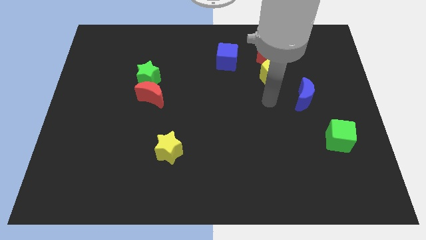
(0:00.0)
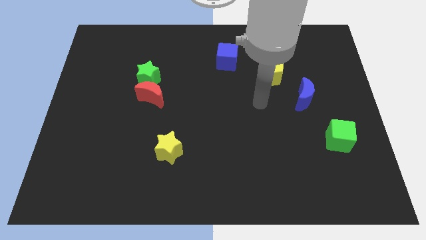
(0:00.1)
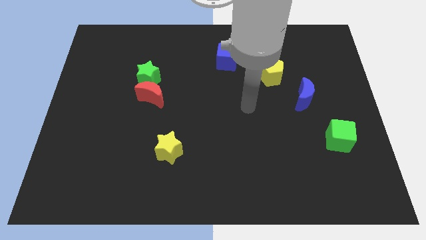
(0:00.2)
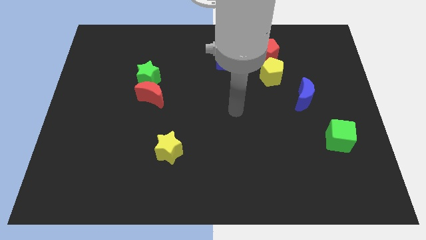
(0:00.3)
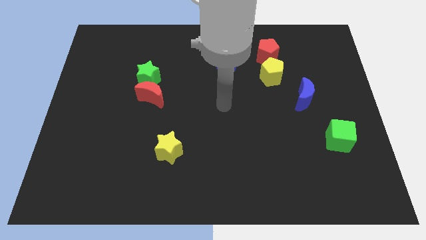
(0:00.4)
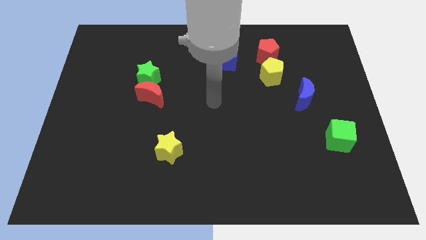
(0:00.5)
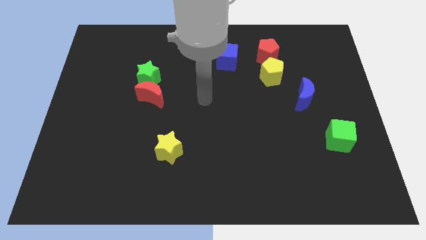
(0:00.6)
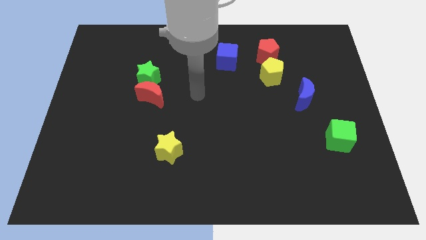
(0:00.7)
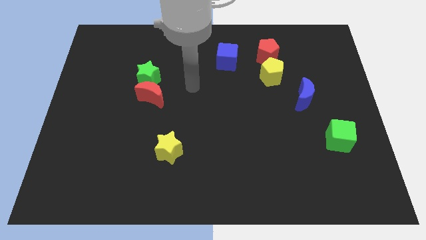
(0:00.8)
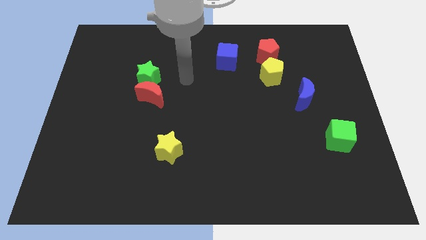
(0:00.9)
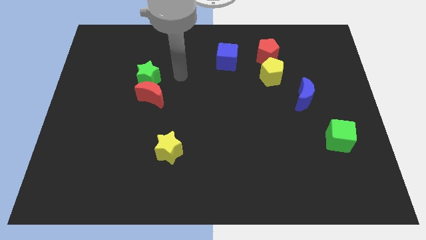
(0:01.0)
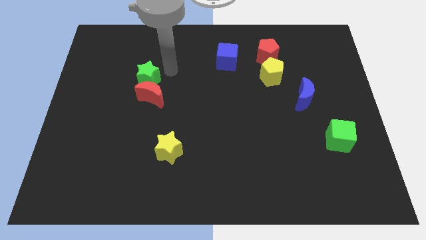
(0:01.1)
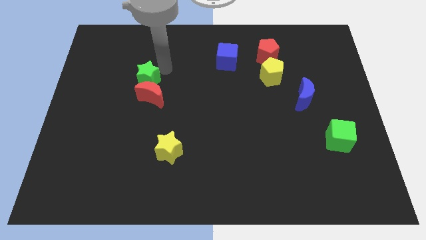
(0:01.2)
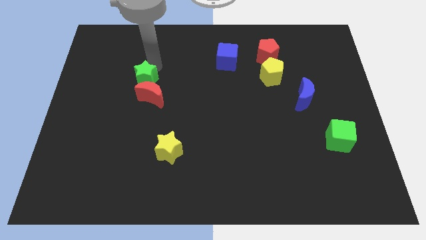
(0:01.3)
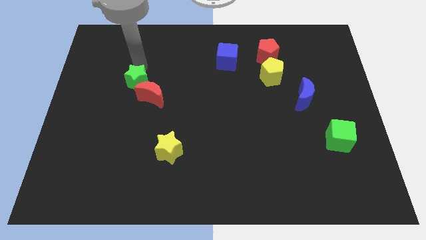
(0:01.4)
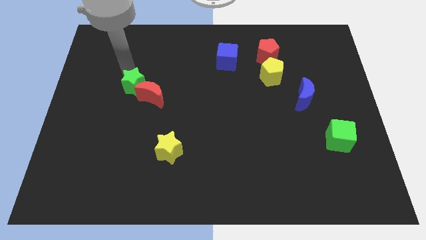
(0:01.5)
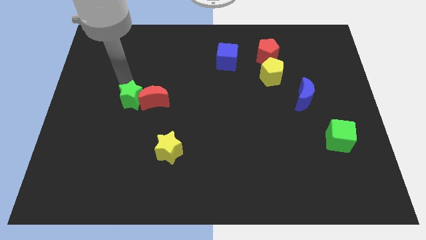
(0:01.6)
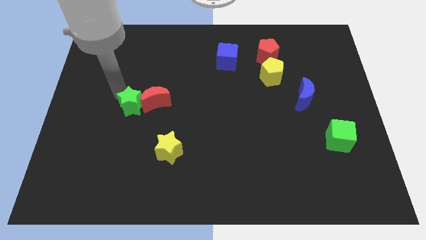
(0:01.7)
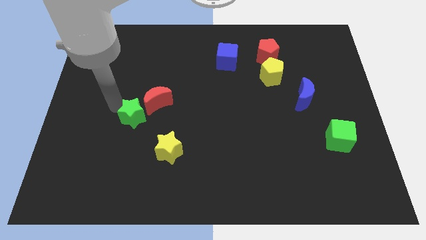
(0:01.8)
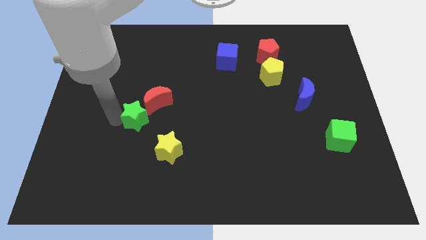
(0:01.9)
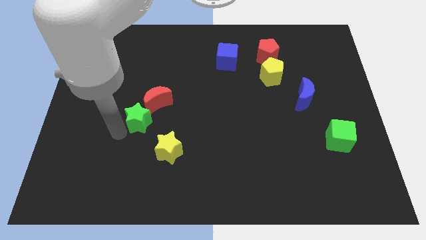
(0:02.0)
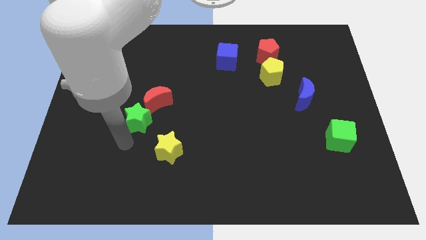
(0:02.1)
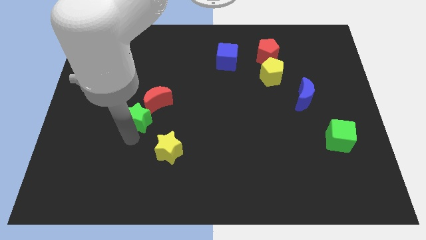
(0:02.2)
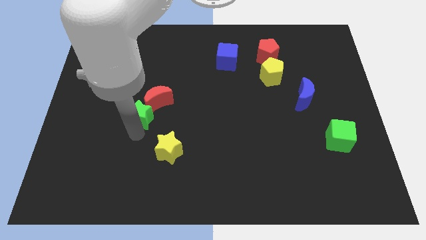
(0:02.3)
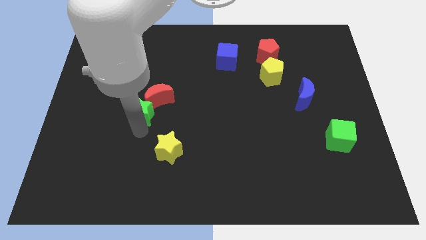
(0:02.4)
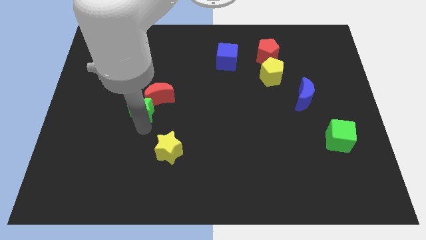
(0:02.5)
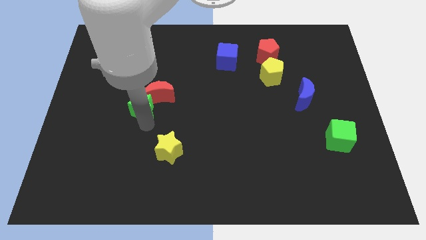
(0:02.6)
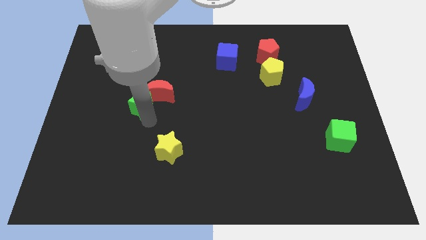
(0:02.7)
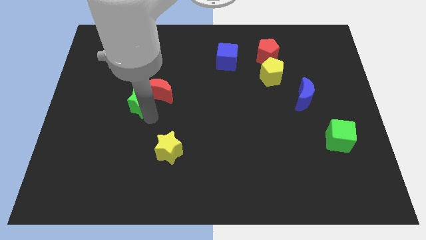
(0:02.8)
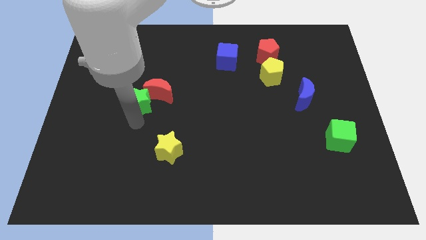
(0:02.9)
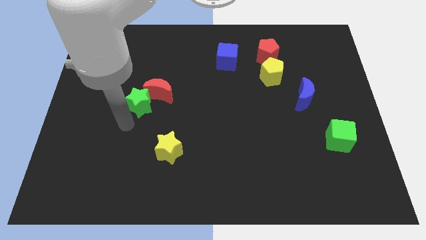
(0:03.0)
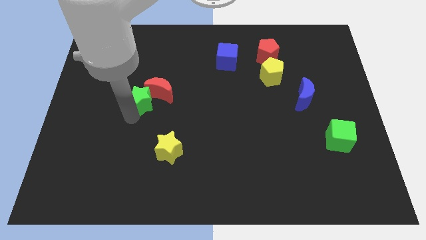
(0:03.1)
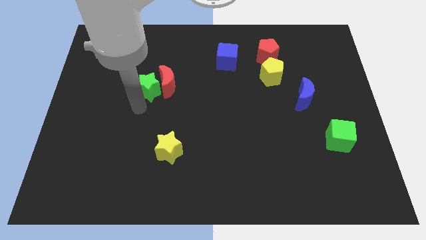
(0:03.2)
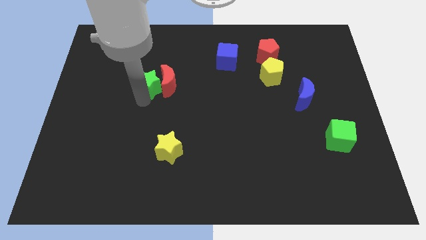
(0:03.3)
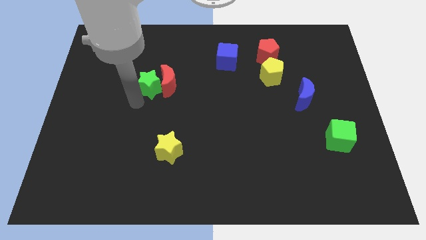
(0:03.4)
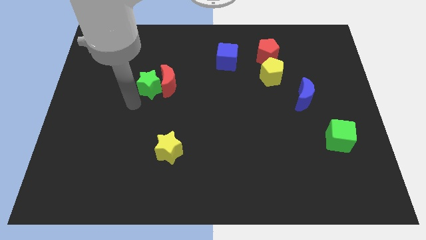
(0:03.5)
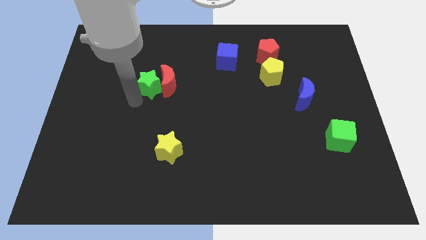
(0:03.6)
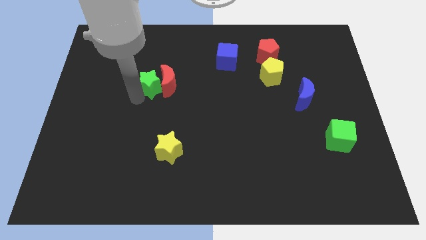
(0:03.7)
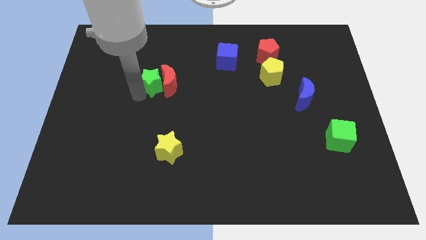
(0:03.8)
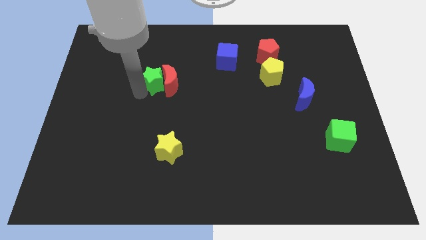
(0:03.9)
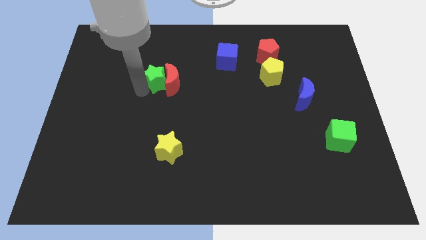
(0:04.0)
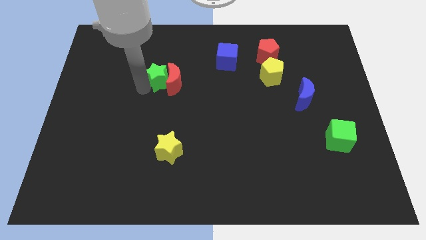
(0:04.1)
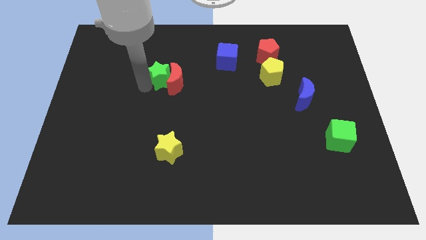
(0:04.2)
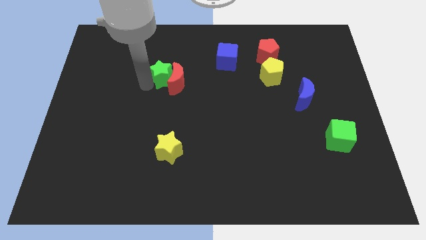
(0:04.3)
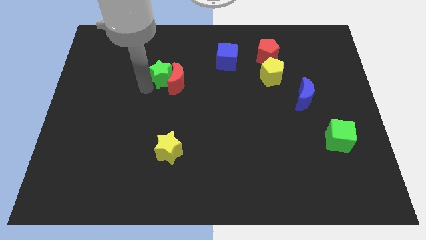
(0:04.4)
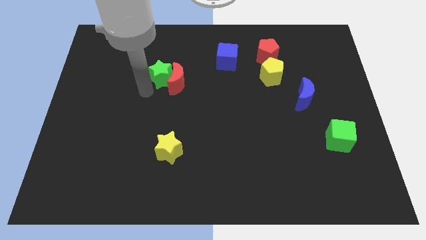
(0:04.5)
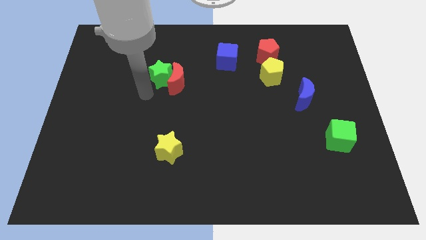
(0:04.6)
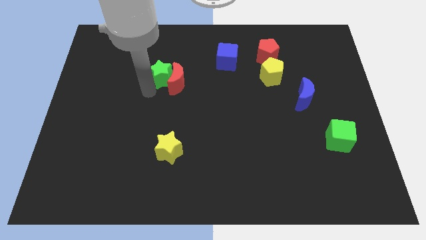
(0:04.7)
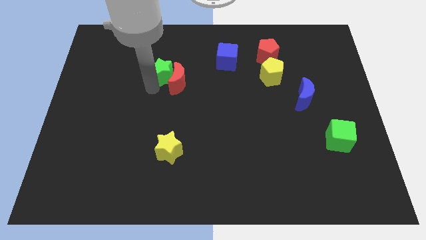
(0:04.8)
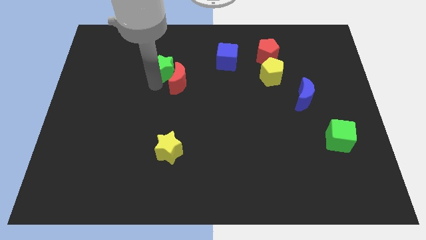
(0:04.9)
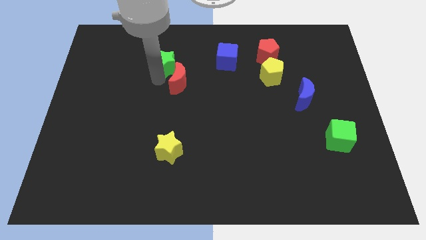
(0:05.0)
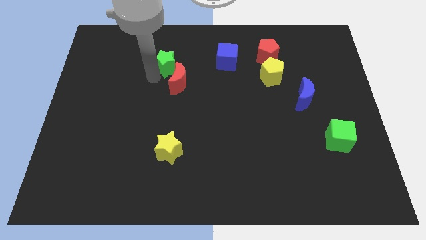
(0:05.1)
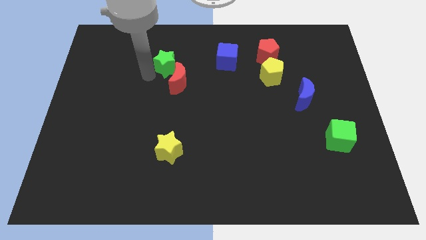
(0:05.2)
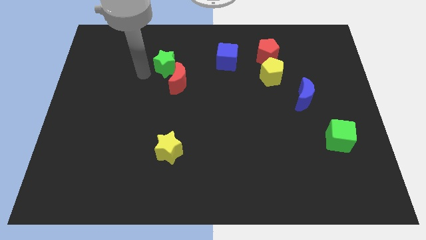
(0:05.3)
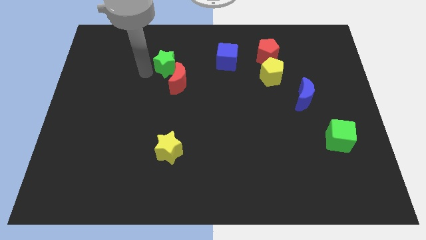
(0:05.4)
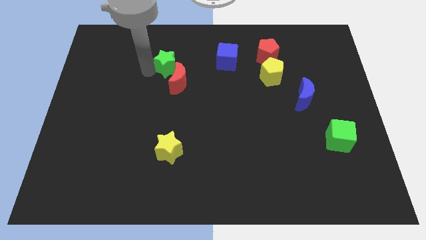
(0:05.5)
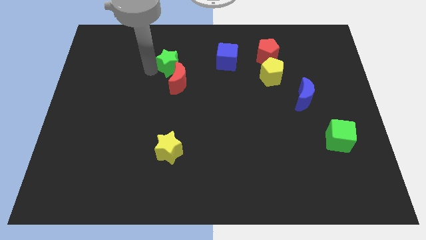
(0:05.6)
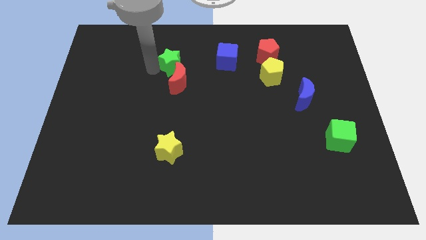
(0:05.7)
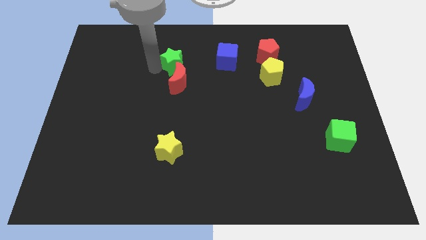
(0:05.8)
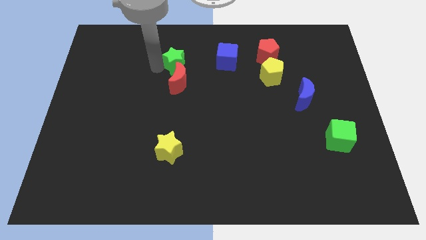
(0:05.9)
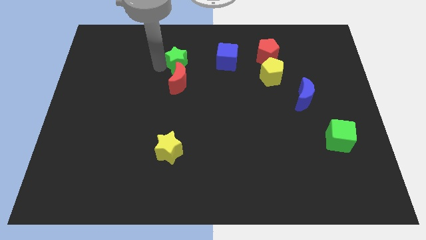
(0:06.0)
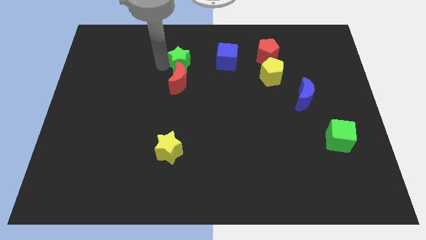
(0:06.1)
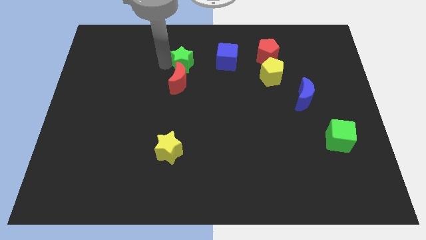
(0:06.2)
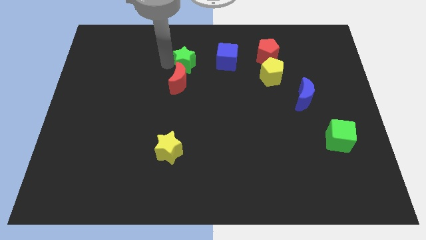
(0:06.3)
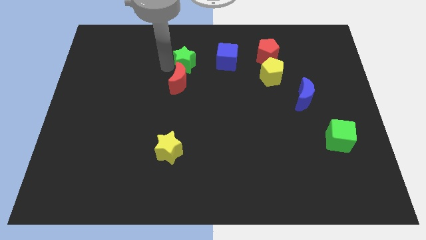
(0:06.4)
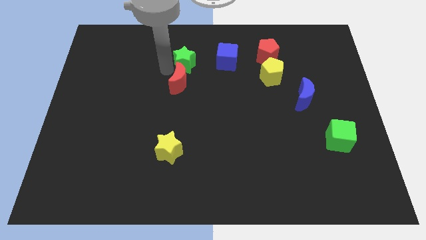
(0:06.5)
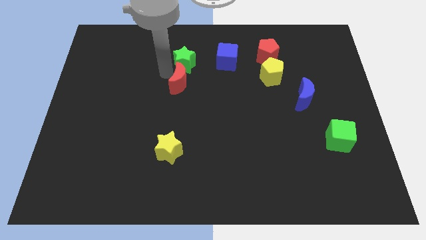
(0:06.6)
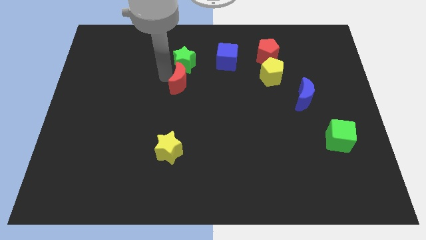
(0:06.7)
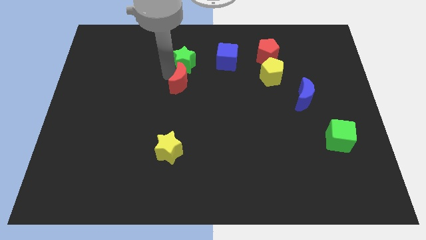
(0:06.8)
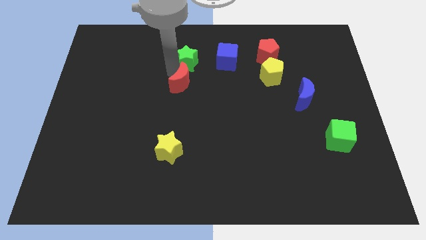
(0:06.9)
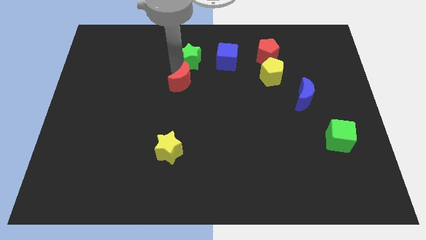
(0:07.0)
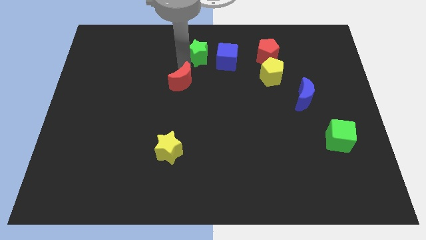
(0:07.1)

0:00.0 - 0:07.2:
push the green star to the towards your base
